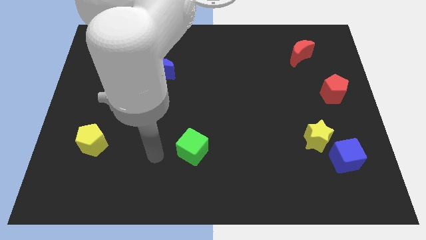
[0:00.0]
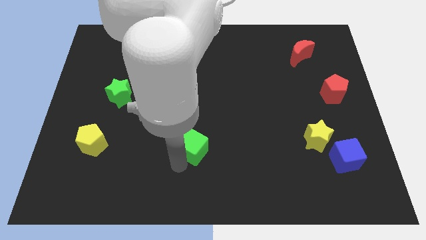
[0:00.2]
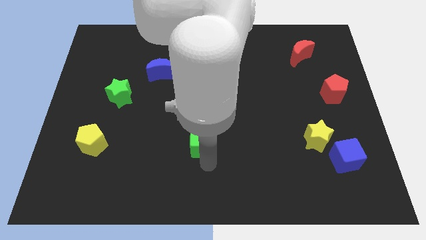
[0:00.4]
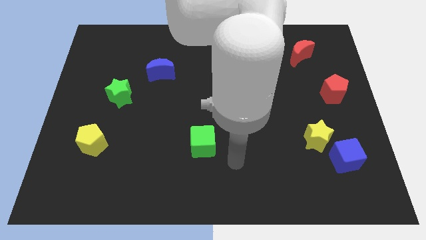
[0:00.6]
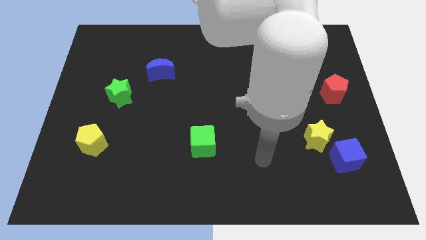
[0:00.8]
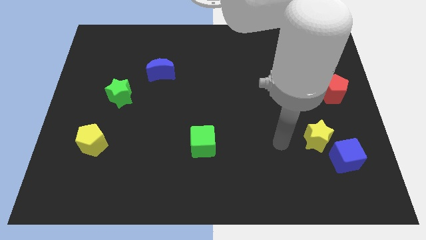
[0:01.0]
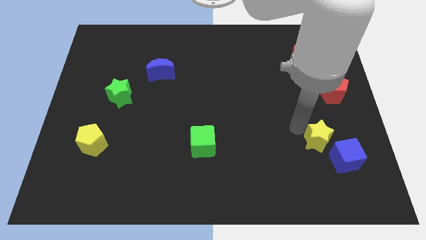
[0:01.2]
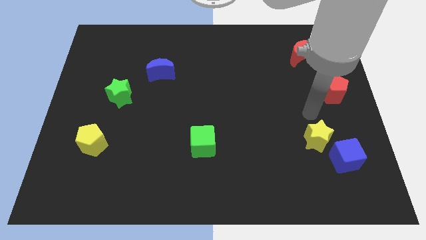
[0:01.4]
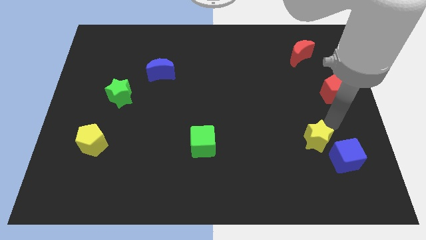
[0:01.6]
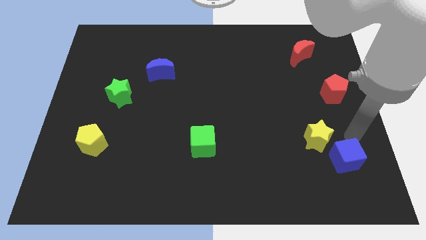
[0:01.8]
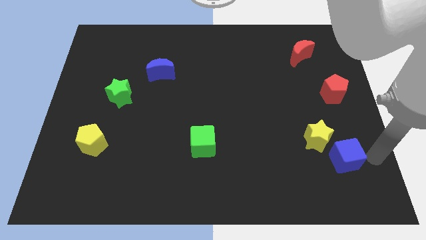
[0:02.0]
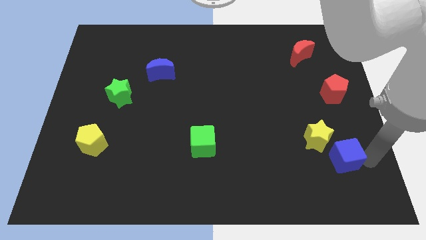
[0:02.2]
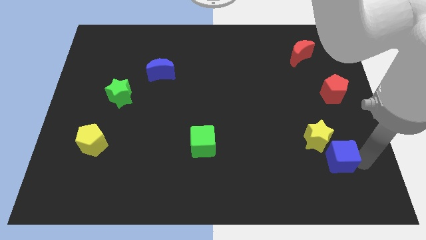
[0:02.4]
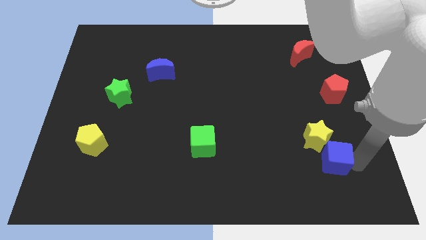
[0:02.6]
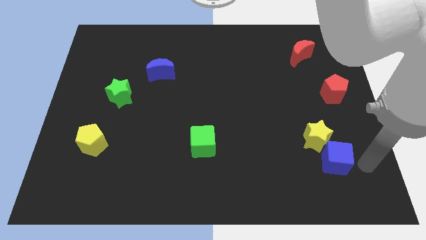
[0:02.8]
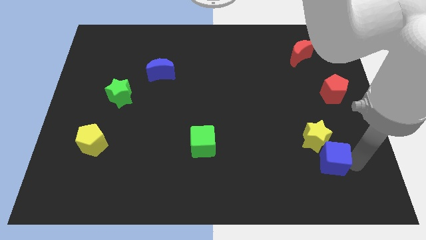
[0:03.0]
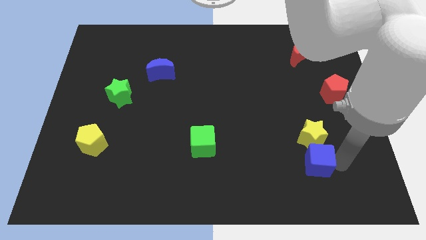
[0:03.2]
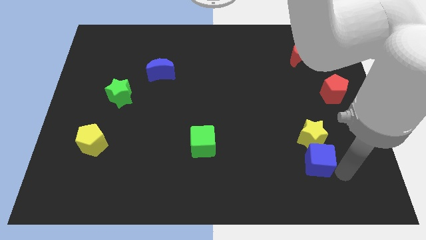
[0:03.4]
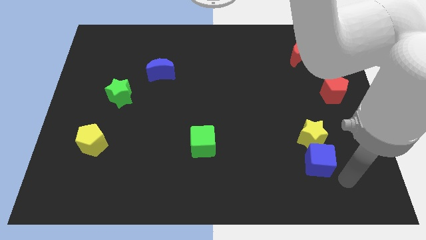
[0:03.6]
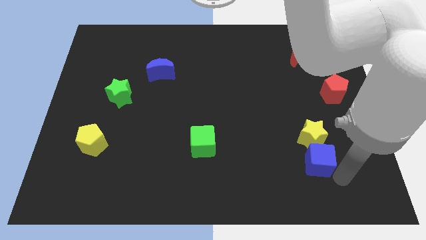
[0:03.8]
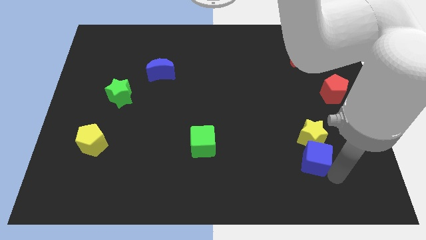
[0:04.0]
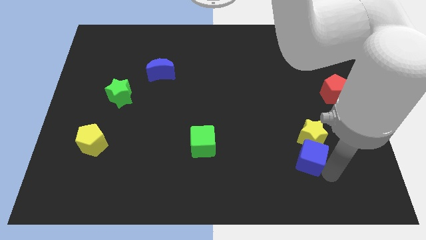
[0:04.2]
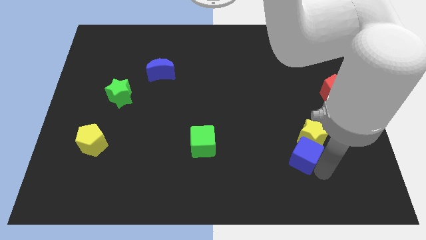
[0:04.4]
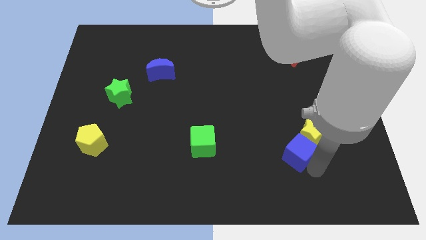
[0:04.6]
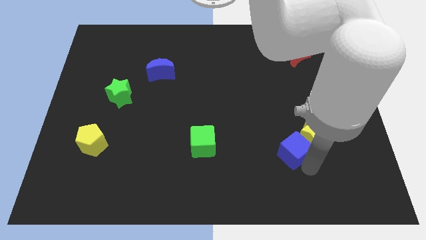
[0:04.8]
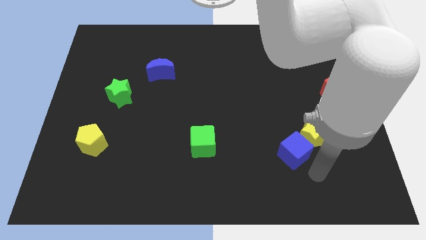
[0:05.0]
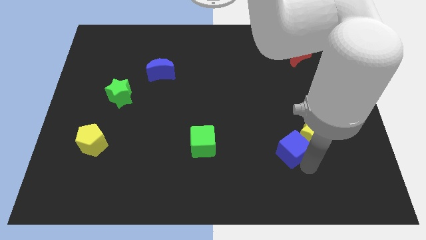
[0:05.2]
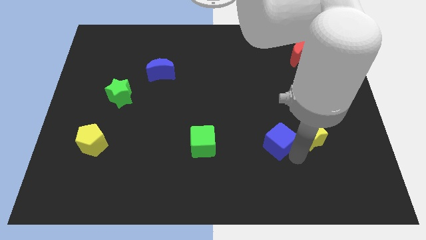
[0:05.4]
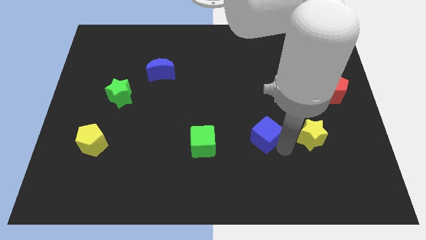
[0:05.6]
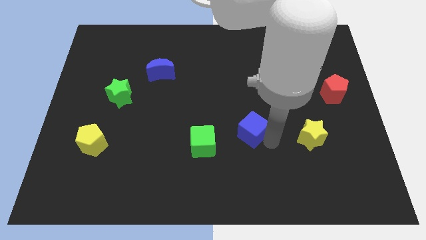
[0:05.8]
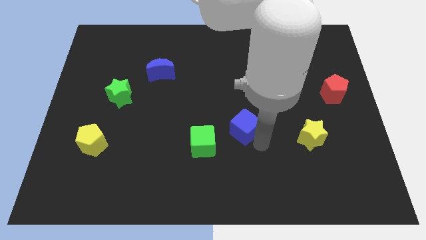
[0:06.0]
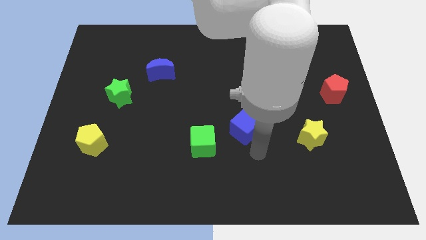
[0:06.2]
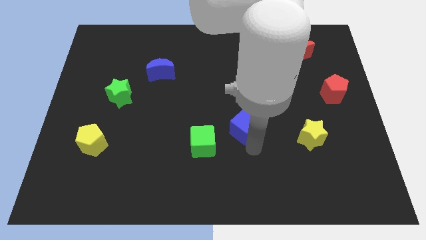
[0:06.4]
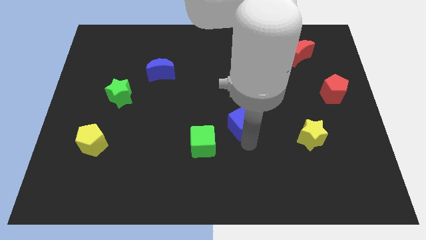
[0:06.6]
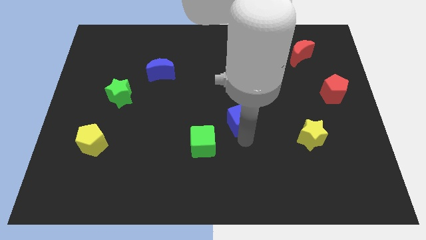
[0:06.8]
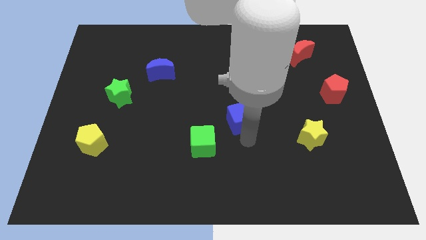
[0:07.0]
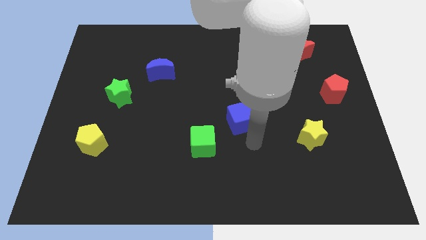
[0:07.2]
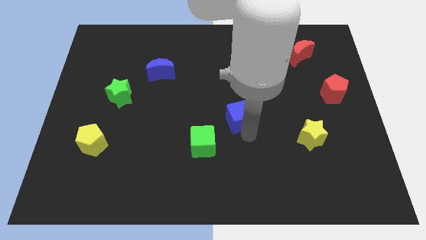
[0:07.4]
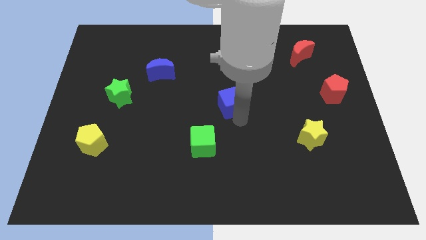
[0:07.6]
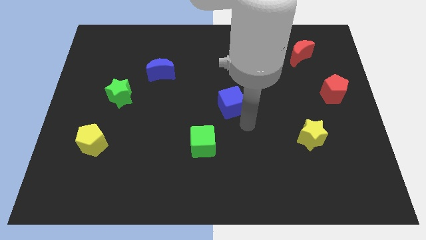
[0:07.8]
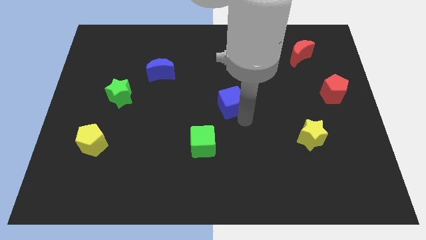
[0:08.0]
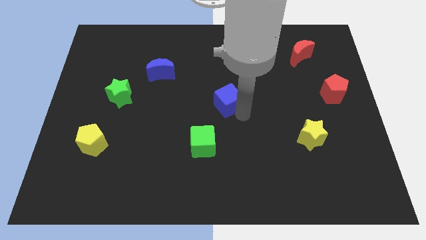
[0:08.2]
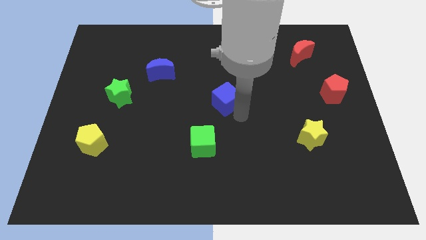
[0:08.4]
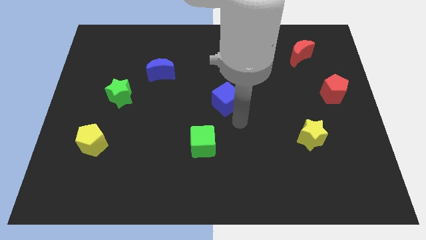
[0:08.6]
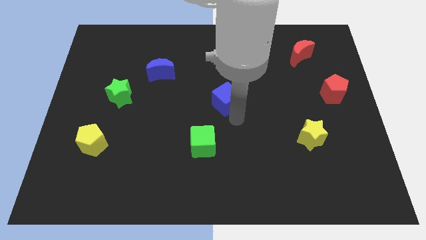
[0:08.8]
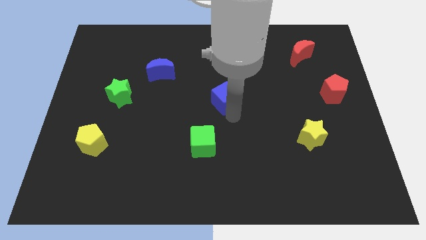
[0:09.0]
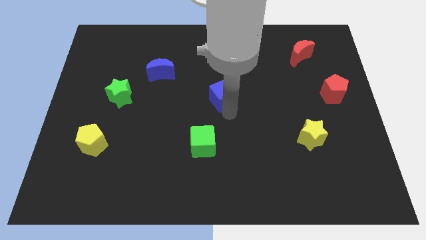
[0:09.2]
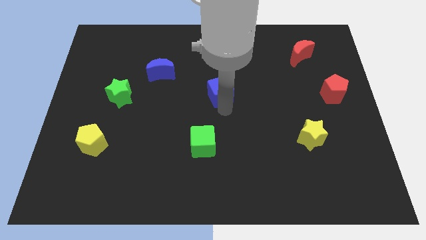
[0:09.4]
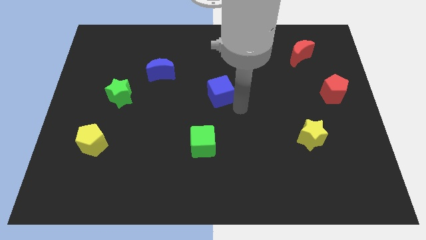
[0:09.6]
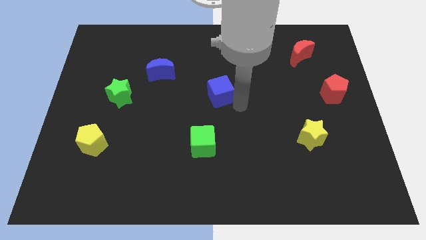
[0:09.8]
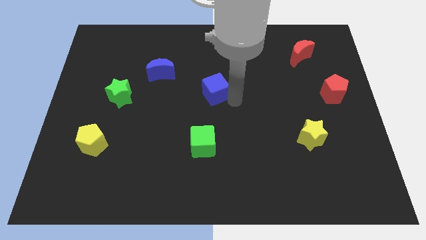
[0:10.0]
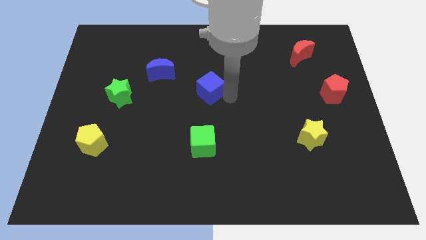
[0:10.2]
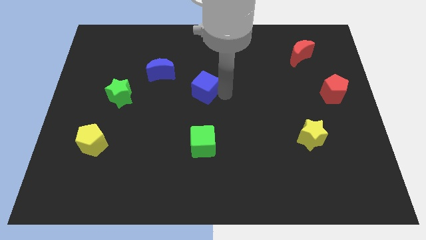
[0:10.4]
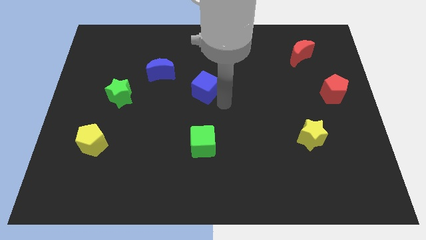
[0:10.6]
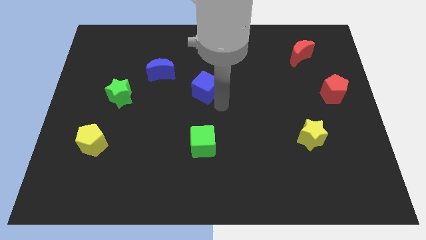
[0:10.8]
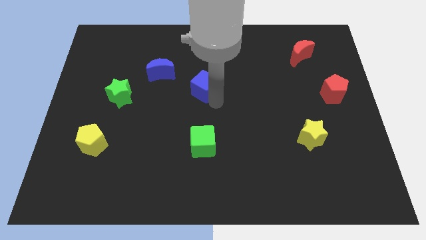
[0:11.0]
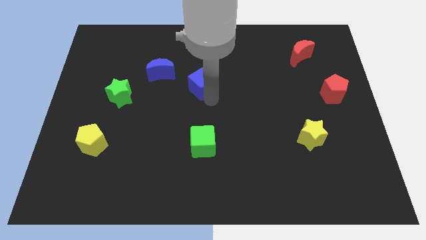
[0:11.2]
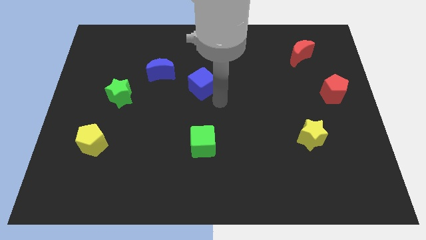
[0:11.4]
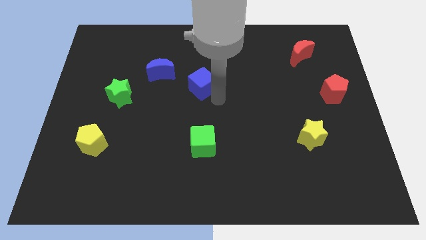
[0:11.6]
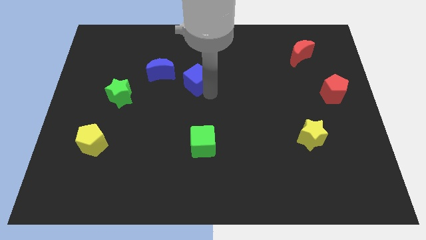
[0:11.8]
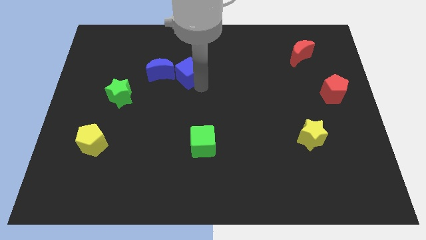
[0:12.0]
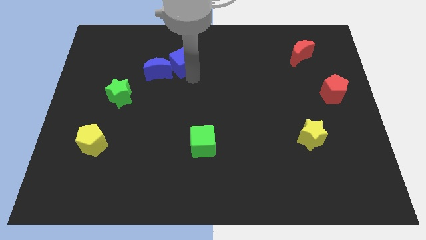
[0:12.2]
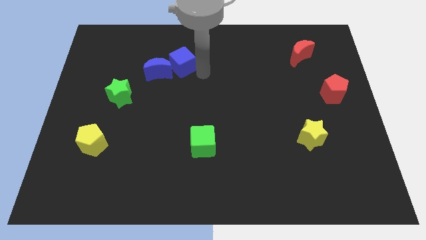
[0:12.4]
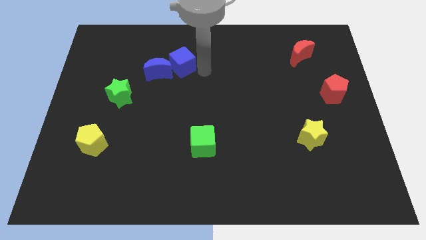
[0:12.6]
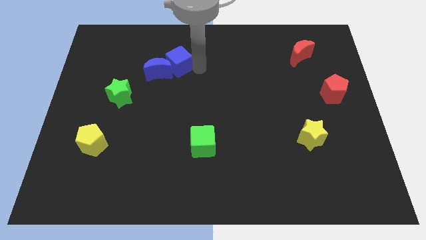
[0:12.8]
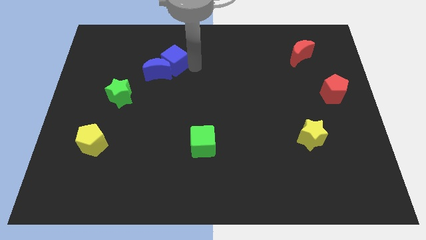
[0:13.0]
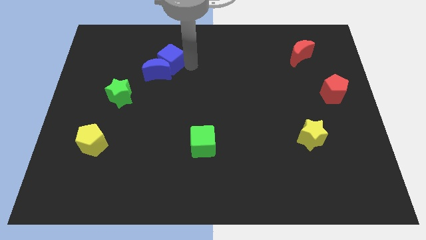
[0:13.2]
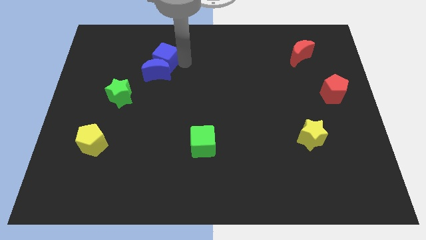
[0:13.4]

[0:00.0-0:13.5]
move the blue cube to the top left of the blue moon
